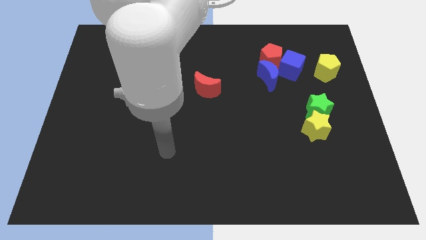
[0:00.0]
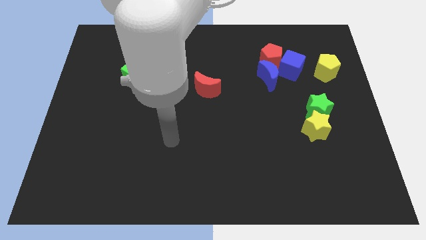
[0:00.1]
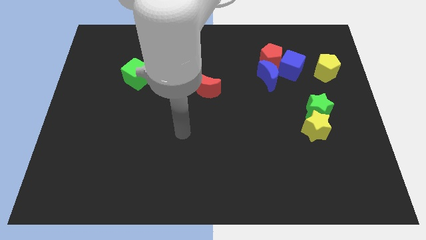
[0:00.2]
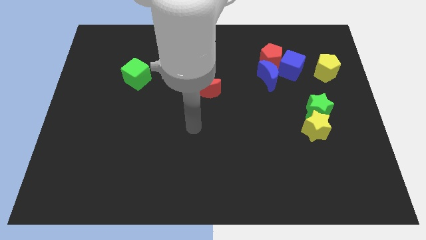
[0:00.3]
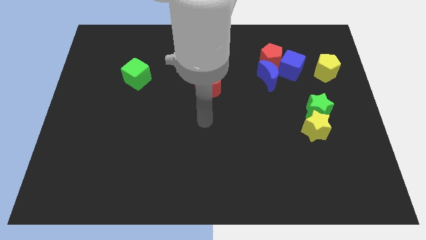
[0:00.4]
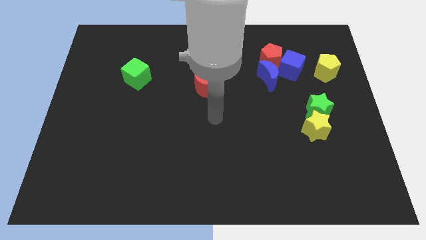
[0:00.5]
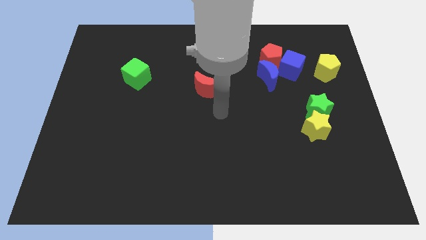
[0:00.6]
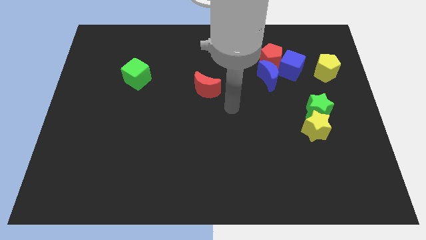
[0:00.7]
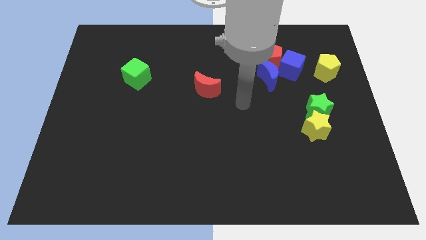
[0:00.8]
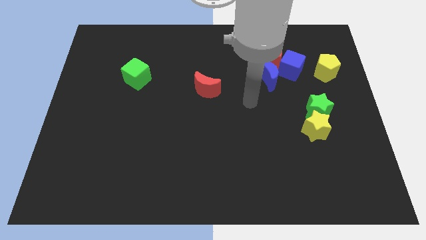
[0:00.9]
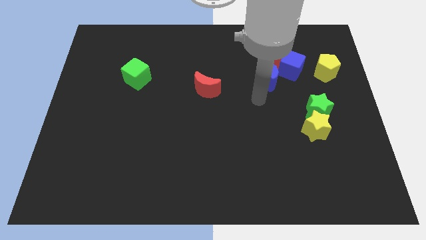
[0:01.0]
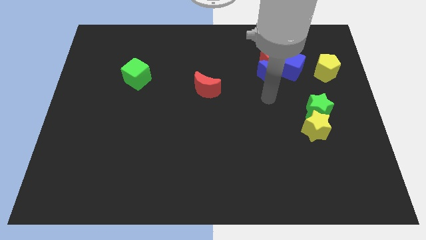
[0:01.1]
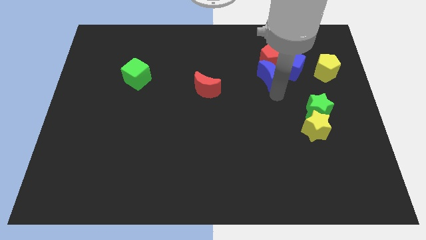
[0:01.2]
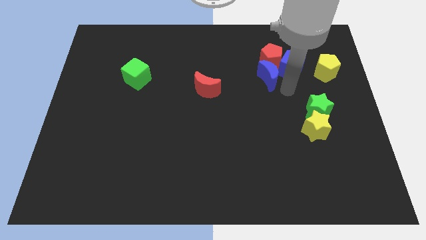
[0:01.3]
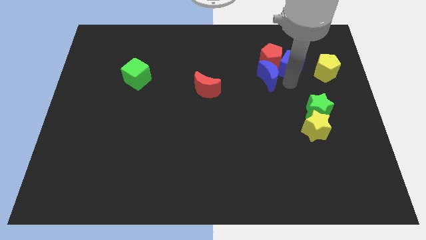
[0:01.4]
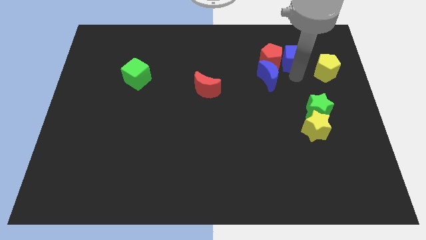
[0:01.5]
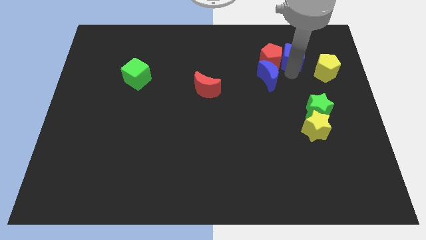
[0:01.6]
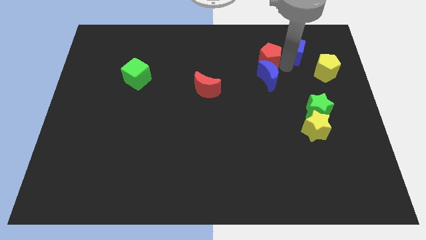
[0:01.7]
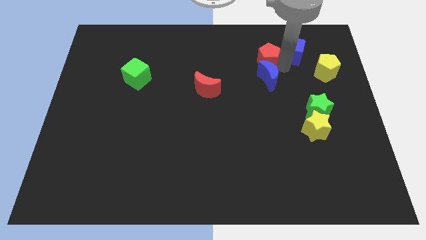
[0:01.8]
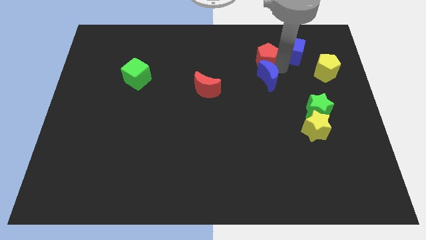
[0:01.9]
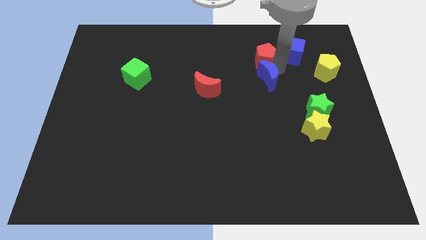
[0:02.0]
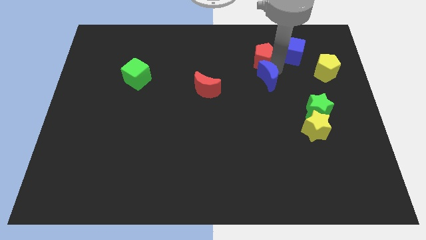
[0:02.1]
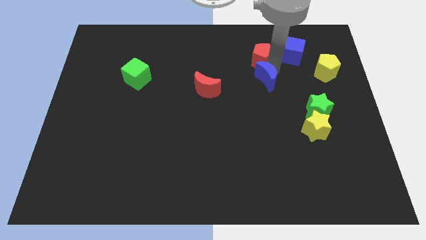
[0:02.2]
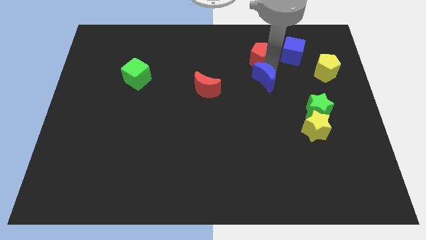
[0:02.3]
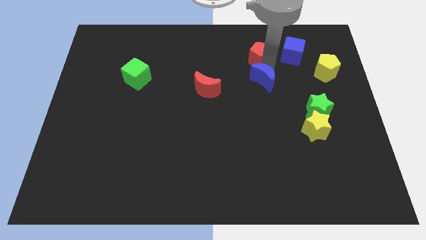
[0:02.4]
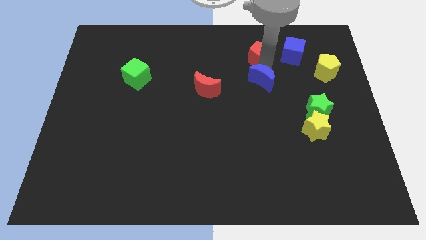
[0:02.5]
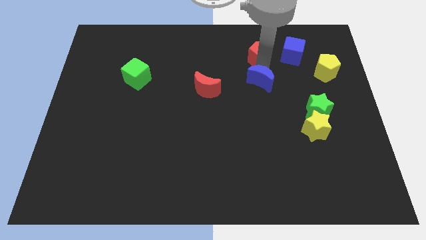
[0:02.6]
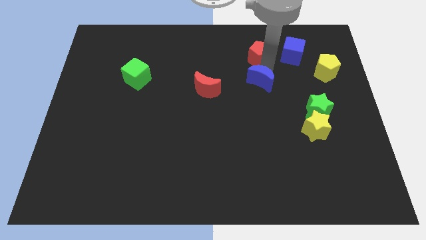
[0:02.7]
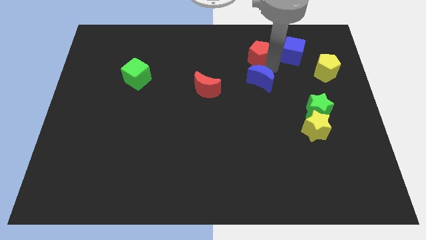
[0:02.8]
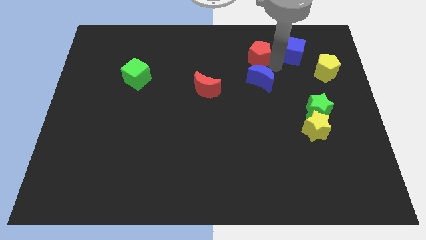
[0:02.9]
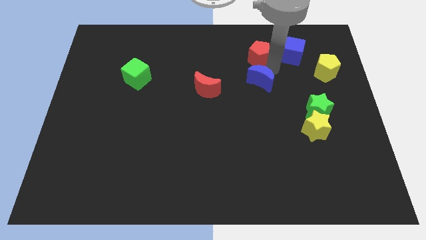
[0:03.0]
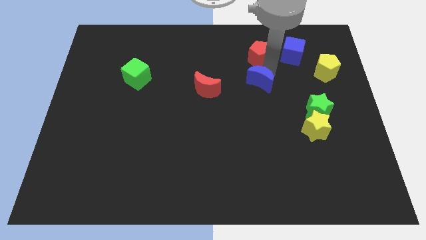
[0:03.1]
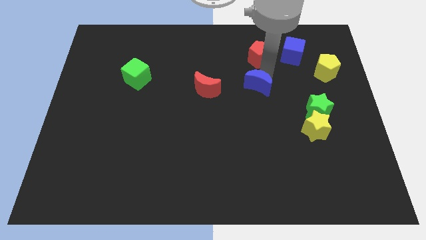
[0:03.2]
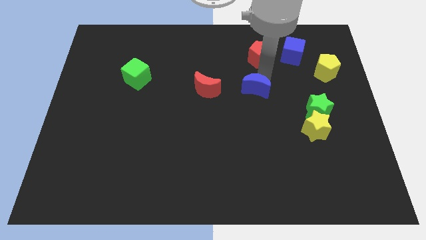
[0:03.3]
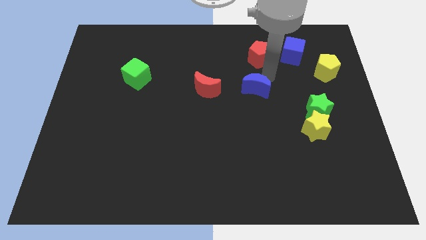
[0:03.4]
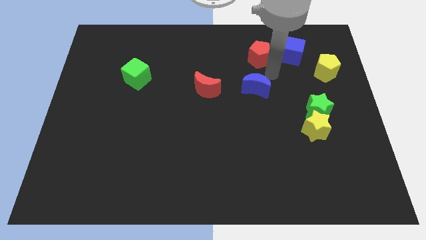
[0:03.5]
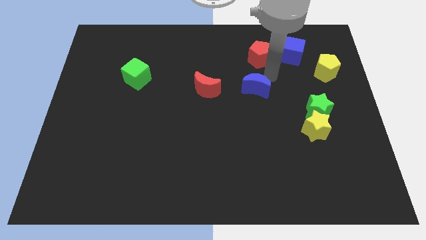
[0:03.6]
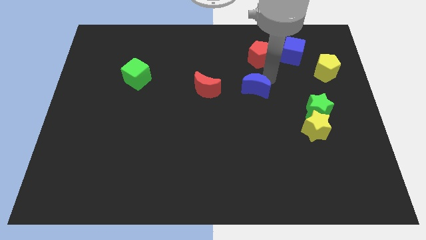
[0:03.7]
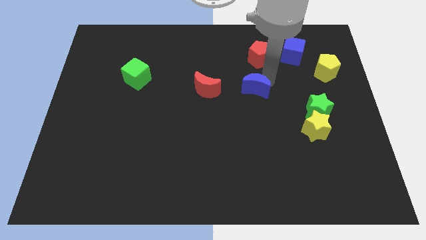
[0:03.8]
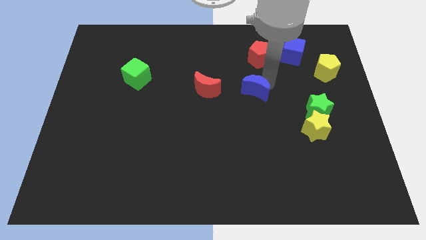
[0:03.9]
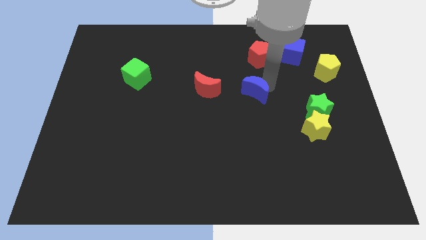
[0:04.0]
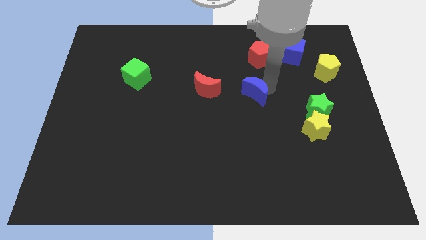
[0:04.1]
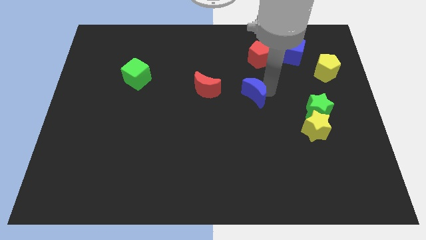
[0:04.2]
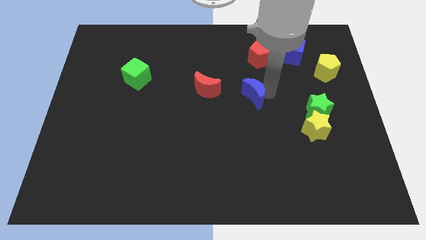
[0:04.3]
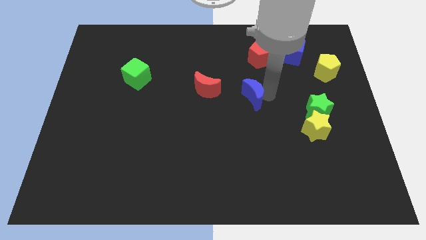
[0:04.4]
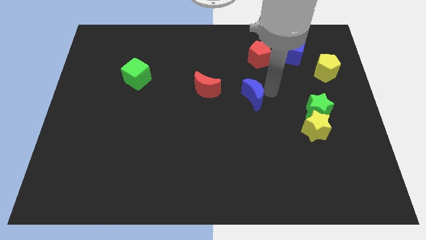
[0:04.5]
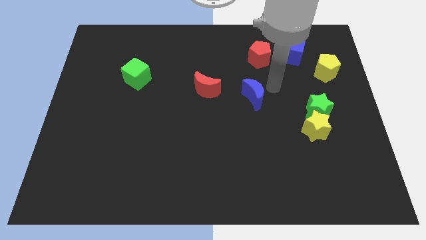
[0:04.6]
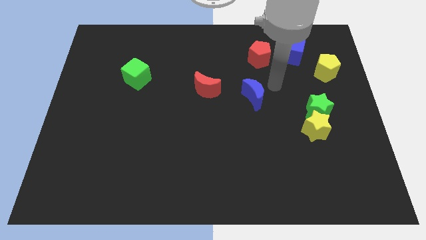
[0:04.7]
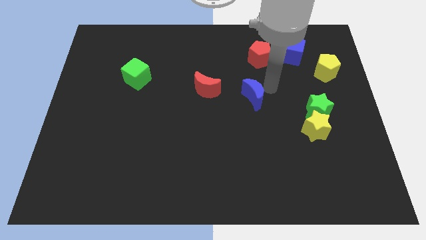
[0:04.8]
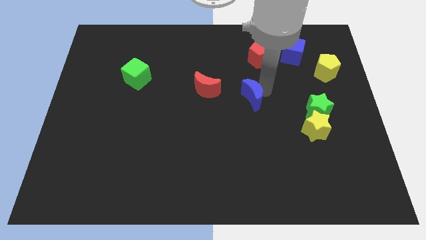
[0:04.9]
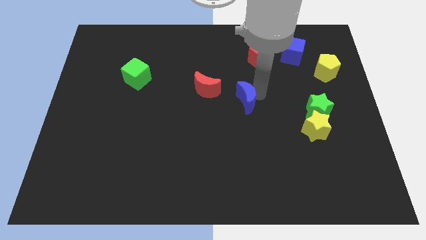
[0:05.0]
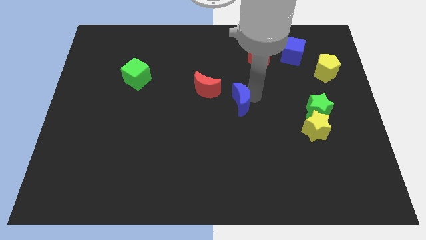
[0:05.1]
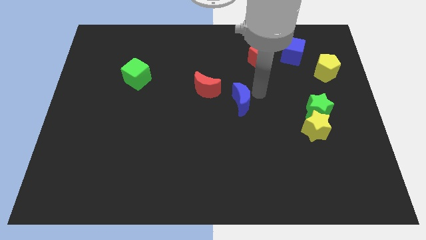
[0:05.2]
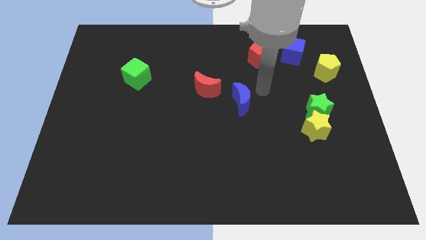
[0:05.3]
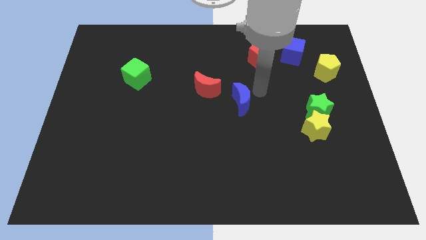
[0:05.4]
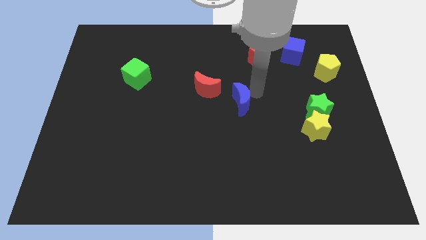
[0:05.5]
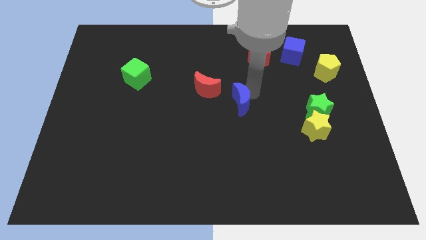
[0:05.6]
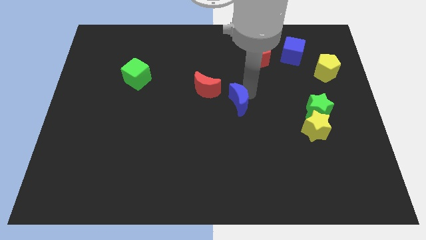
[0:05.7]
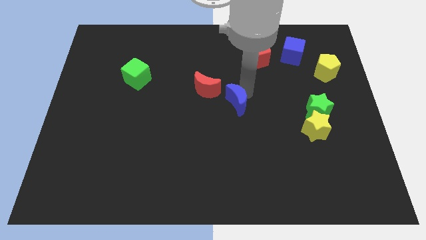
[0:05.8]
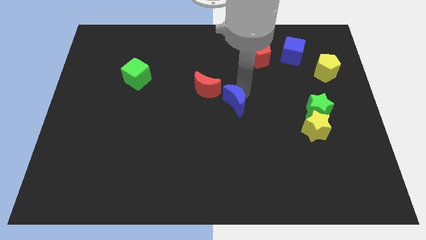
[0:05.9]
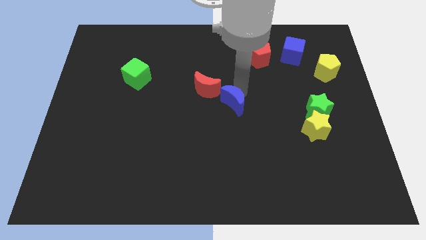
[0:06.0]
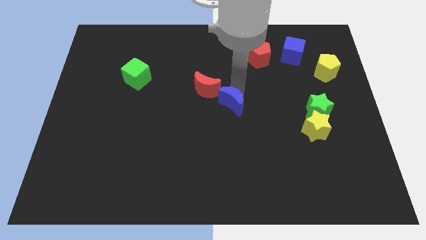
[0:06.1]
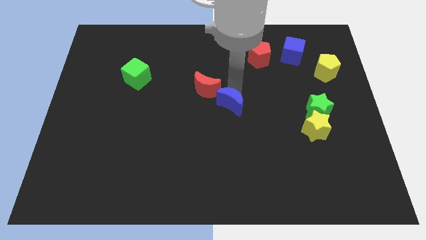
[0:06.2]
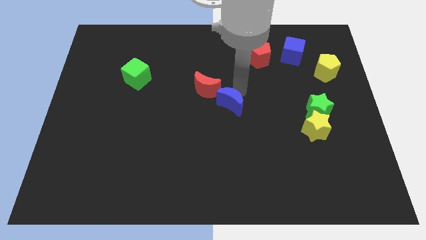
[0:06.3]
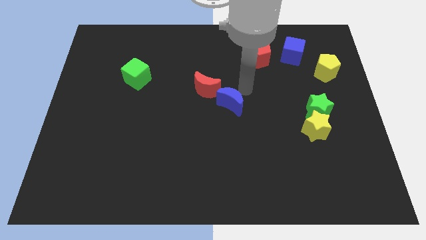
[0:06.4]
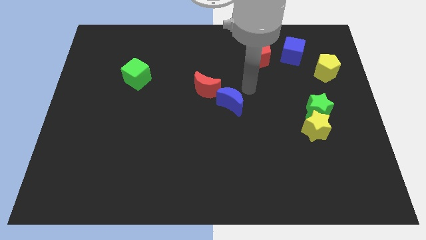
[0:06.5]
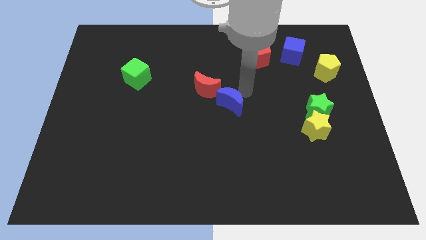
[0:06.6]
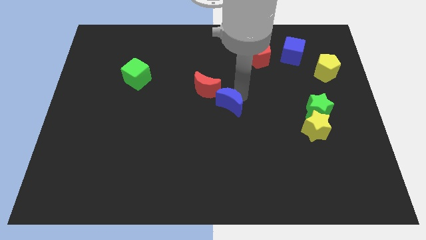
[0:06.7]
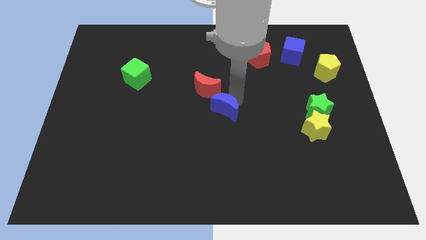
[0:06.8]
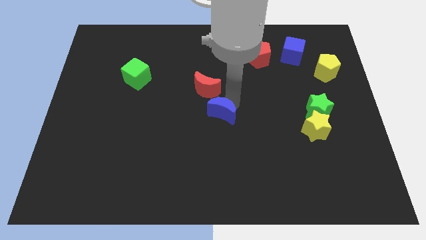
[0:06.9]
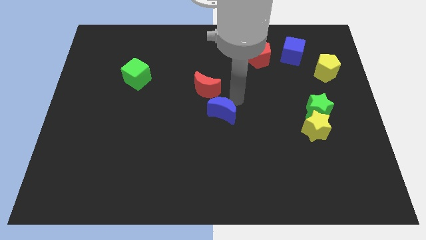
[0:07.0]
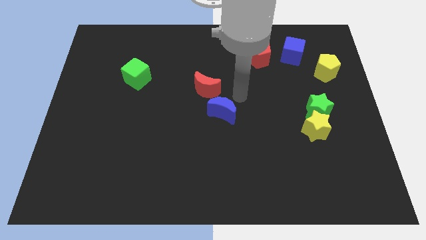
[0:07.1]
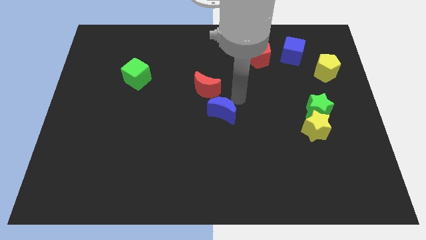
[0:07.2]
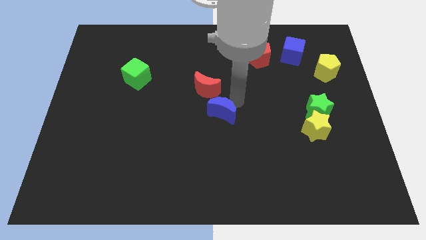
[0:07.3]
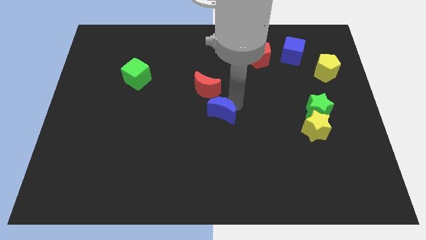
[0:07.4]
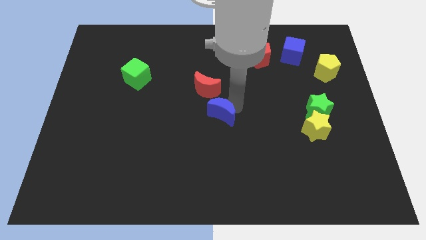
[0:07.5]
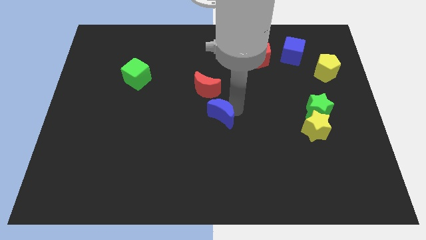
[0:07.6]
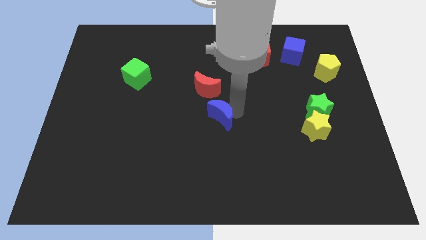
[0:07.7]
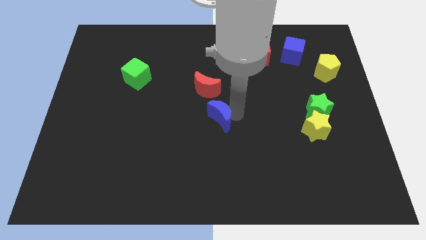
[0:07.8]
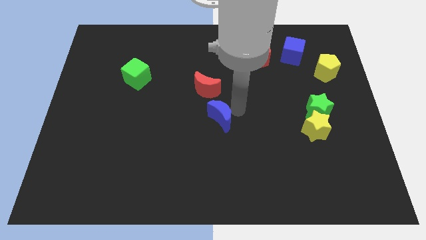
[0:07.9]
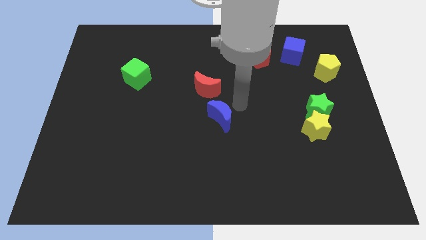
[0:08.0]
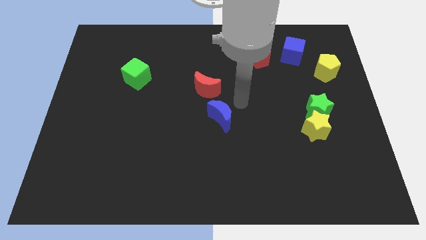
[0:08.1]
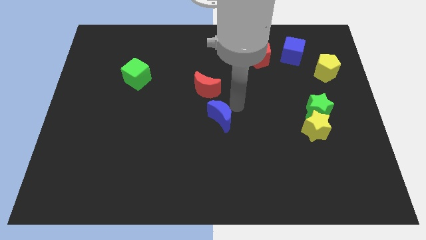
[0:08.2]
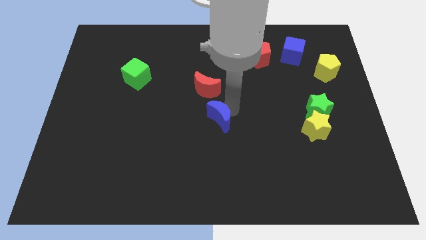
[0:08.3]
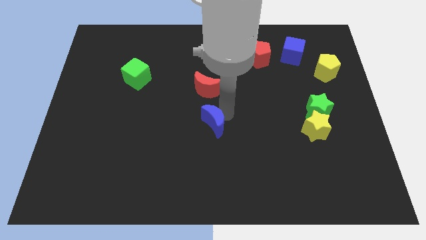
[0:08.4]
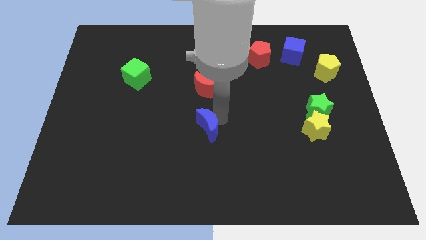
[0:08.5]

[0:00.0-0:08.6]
slide the blue moon down and to the left diagonally
